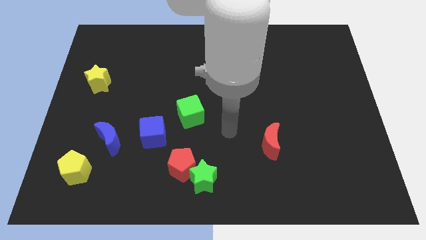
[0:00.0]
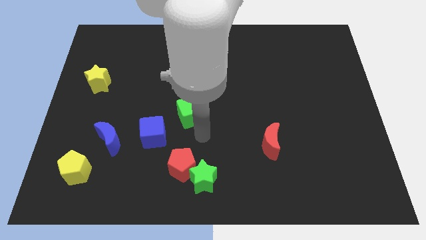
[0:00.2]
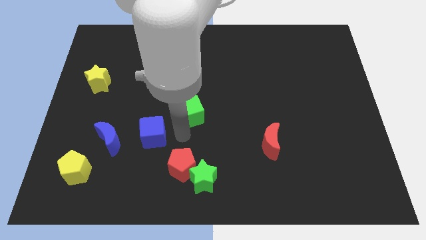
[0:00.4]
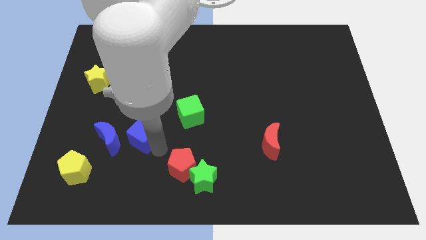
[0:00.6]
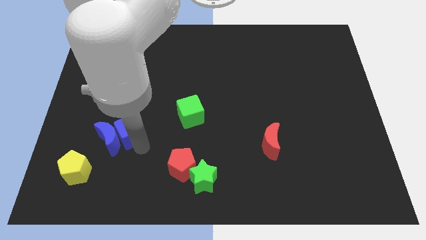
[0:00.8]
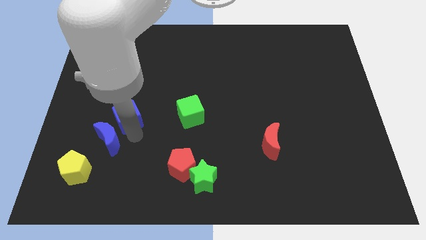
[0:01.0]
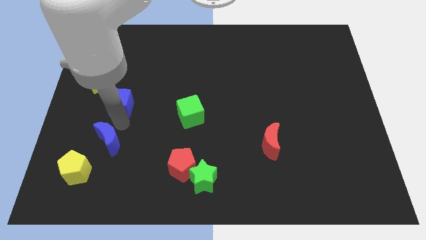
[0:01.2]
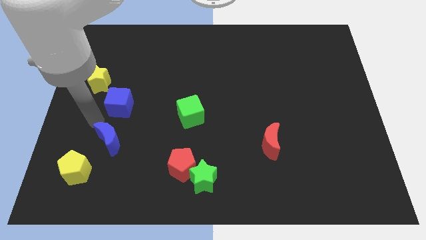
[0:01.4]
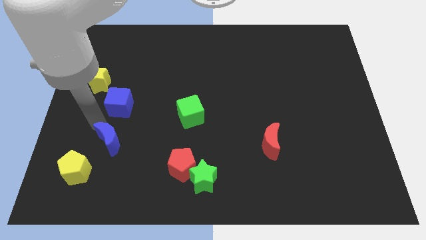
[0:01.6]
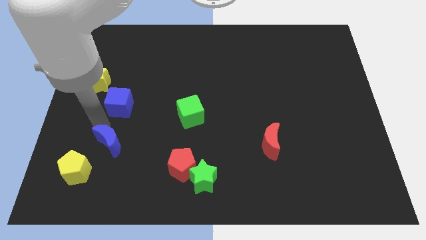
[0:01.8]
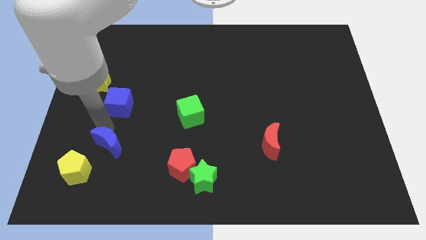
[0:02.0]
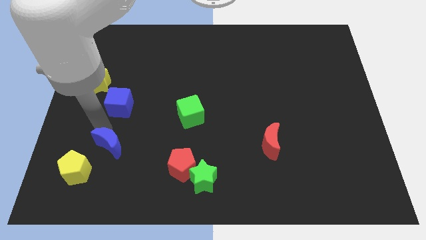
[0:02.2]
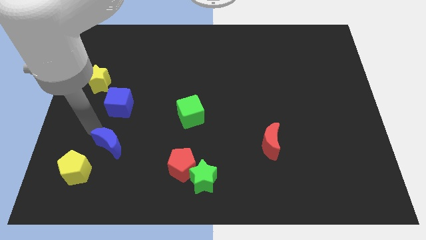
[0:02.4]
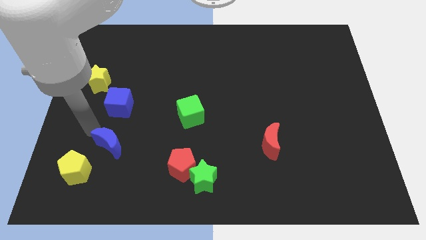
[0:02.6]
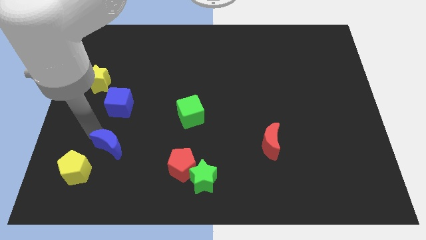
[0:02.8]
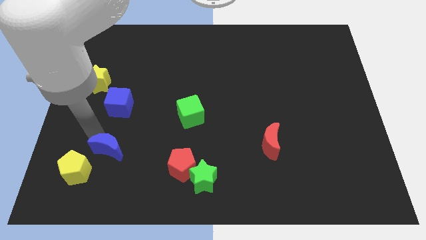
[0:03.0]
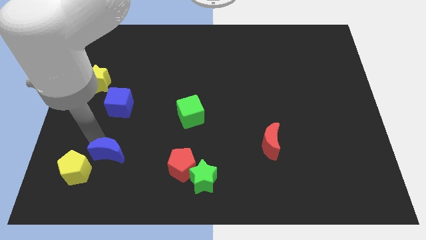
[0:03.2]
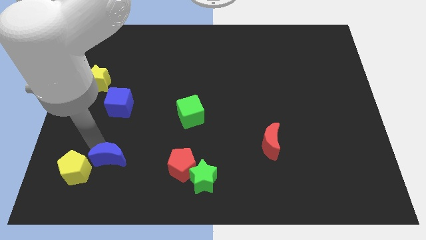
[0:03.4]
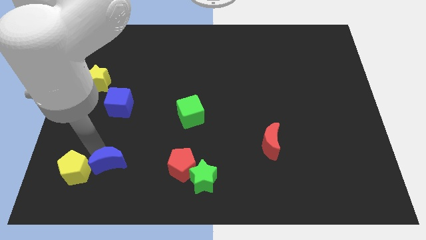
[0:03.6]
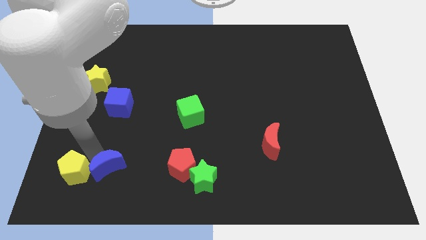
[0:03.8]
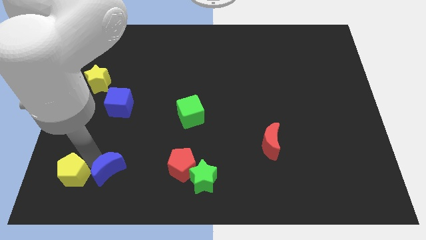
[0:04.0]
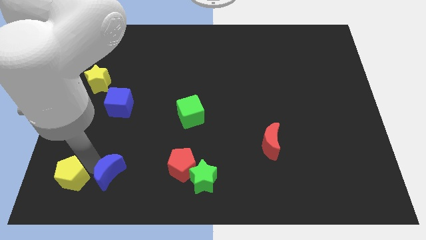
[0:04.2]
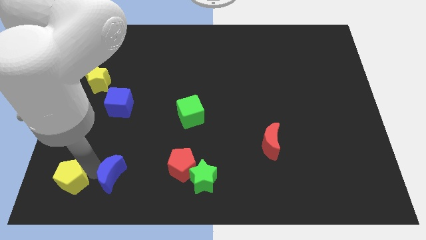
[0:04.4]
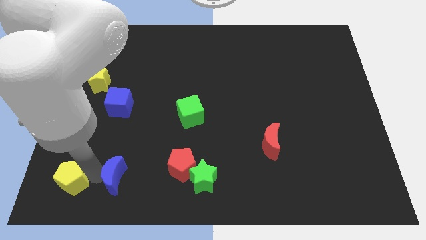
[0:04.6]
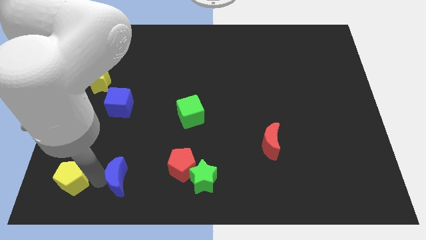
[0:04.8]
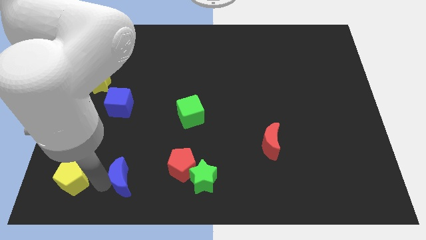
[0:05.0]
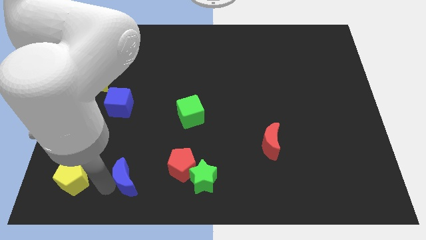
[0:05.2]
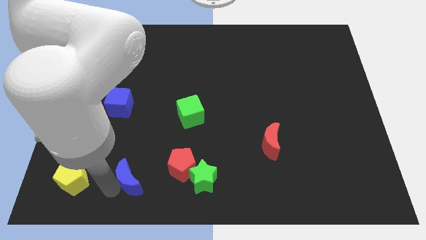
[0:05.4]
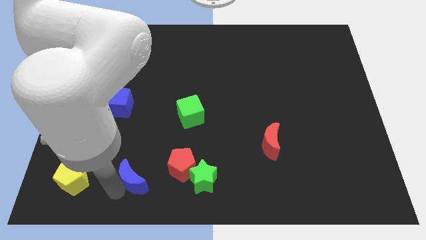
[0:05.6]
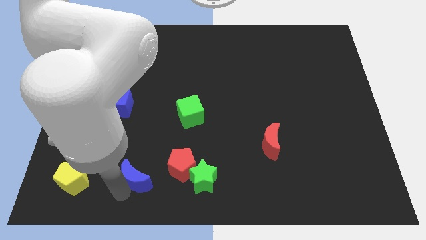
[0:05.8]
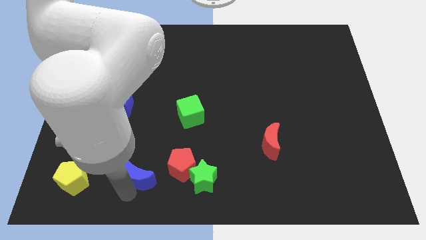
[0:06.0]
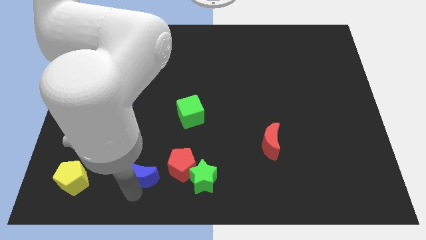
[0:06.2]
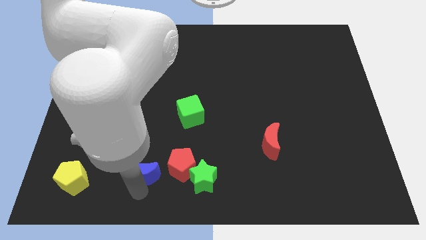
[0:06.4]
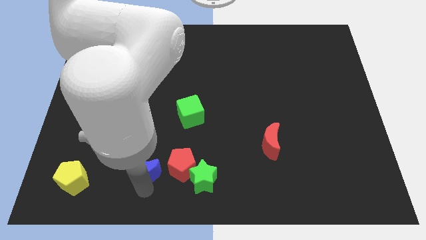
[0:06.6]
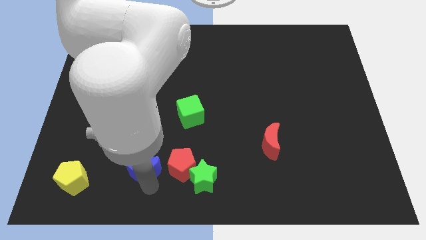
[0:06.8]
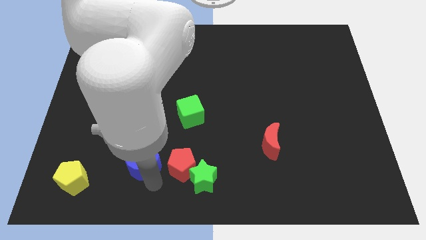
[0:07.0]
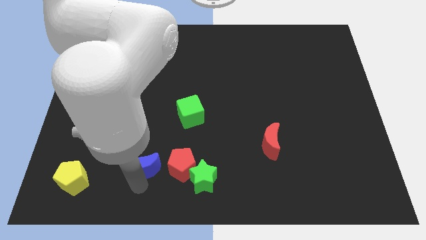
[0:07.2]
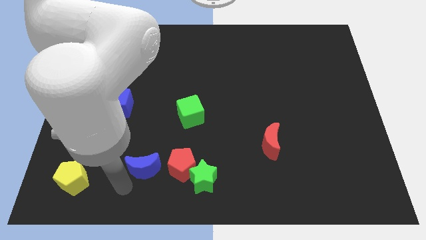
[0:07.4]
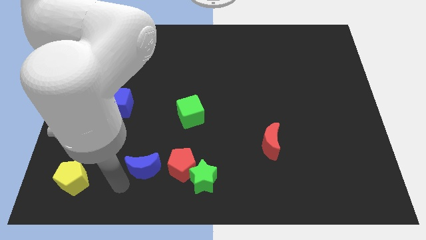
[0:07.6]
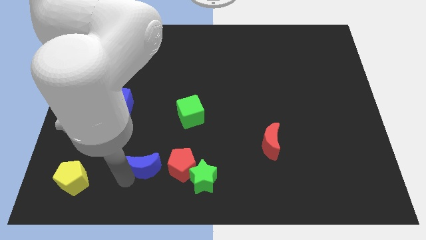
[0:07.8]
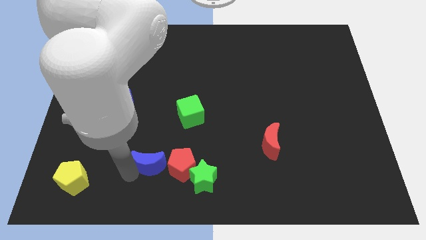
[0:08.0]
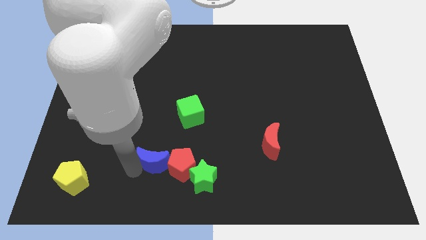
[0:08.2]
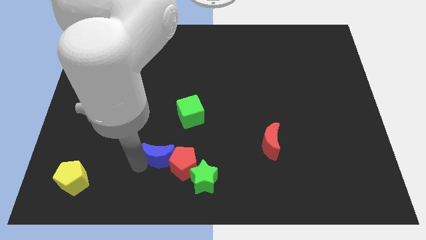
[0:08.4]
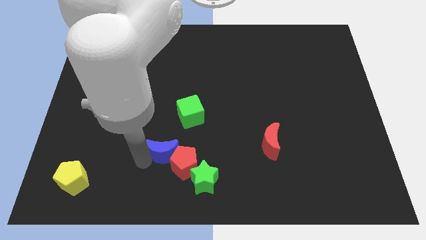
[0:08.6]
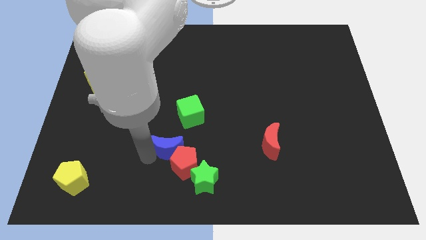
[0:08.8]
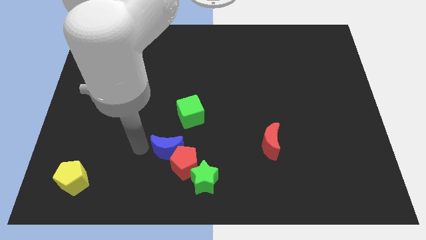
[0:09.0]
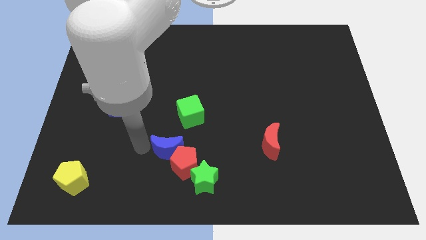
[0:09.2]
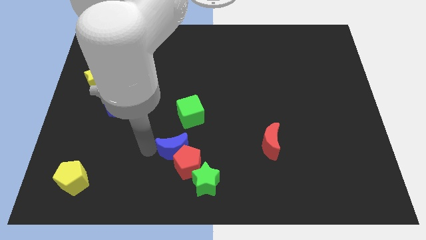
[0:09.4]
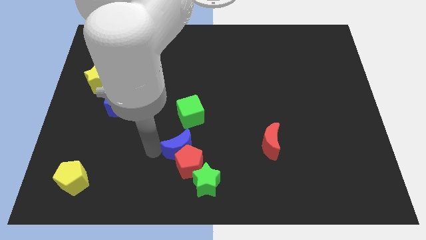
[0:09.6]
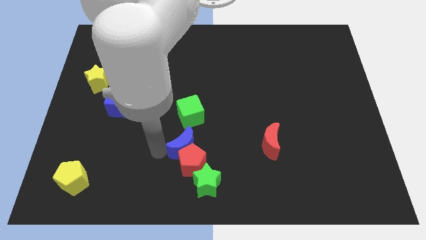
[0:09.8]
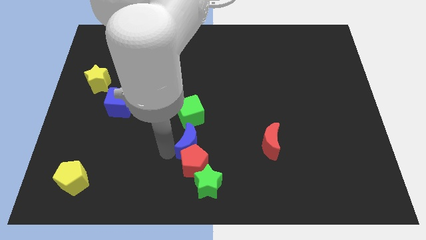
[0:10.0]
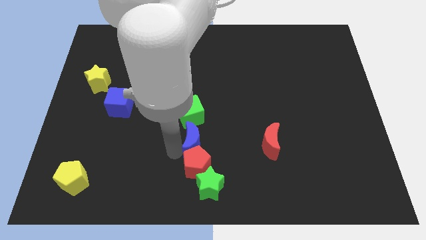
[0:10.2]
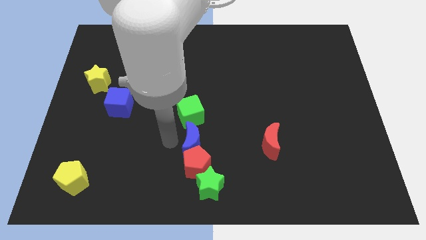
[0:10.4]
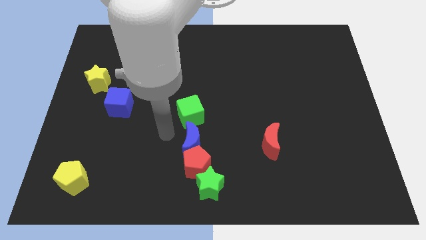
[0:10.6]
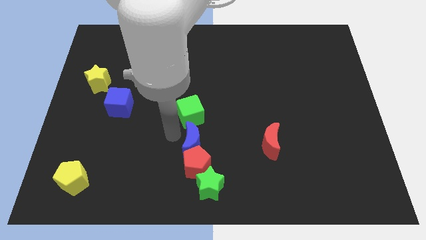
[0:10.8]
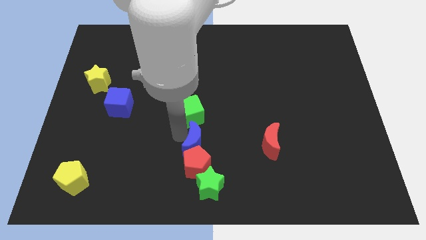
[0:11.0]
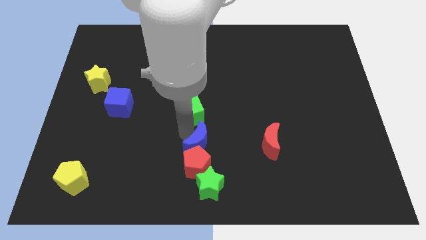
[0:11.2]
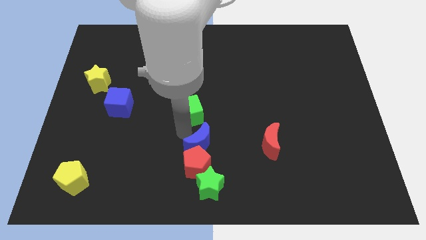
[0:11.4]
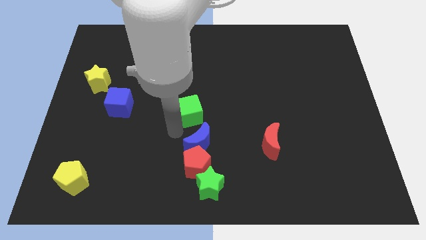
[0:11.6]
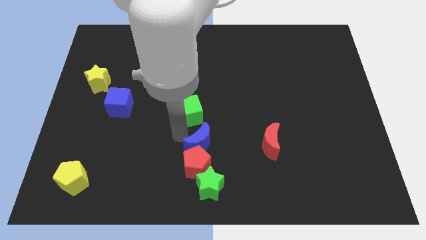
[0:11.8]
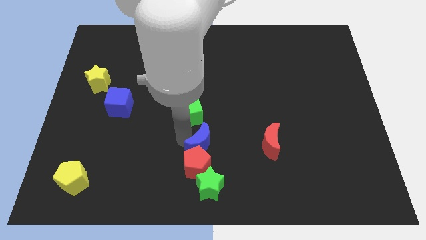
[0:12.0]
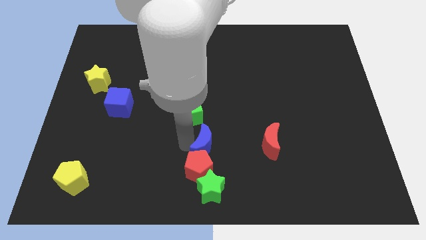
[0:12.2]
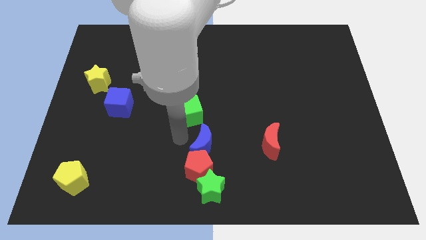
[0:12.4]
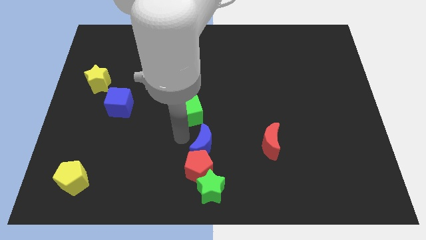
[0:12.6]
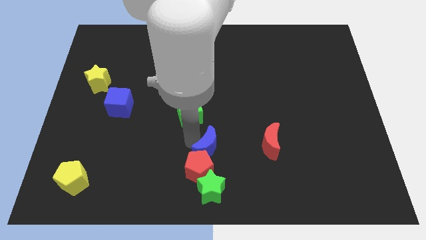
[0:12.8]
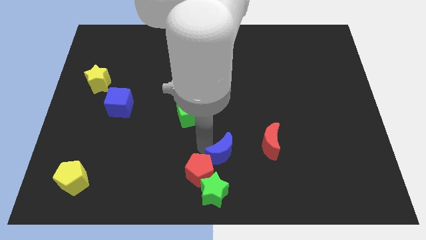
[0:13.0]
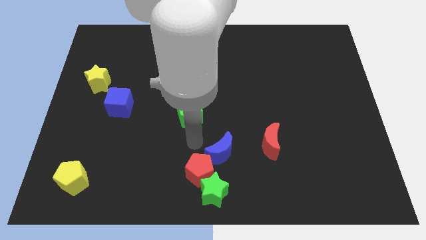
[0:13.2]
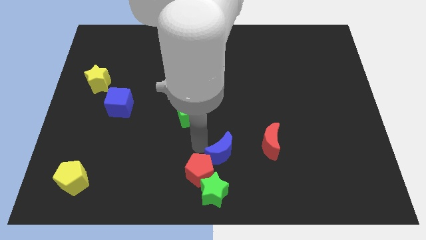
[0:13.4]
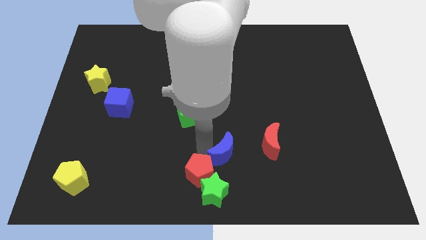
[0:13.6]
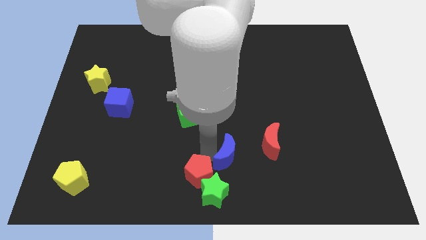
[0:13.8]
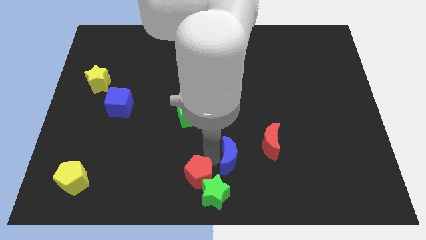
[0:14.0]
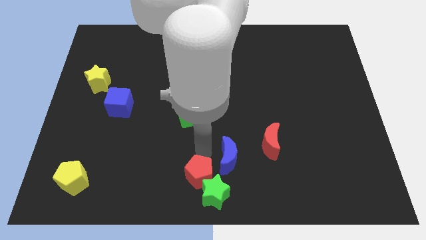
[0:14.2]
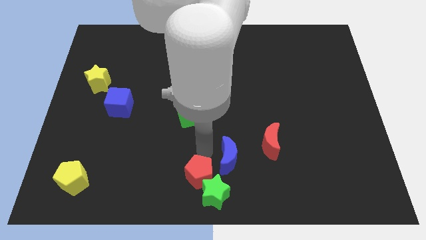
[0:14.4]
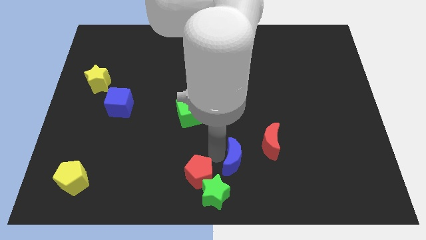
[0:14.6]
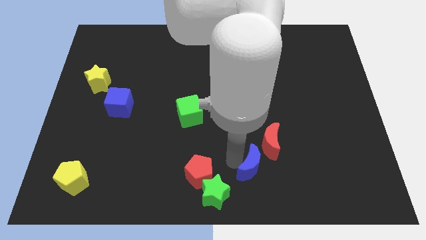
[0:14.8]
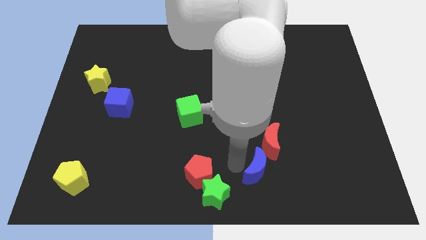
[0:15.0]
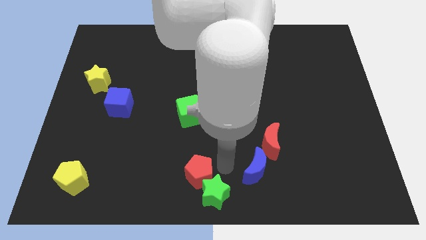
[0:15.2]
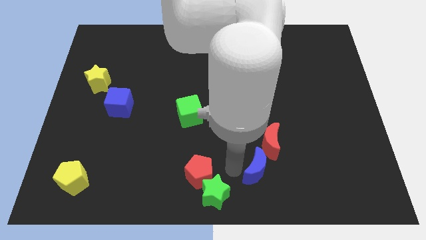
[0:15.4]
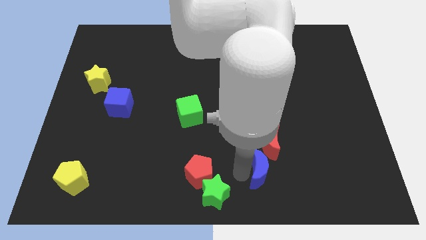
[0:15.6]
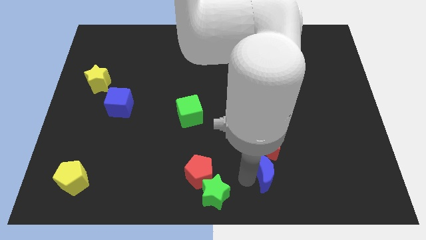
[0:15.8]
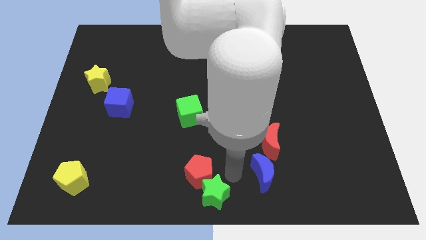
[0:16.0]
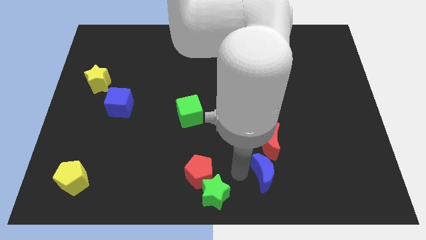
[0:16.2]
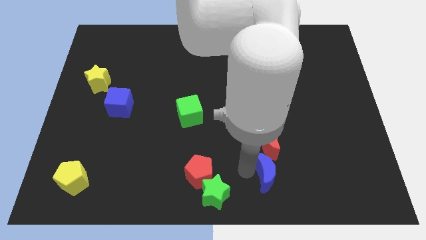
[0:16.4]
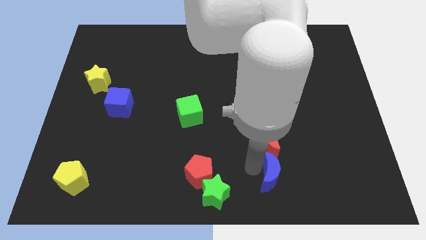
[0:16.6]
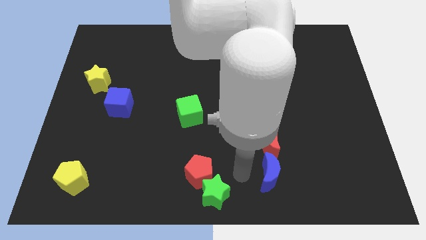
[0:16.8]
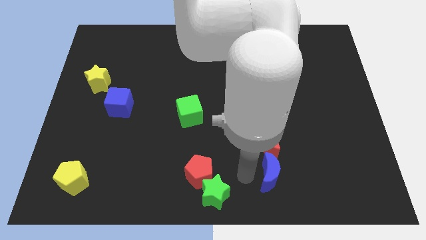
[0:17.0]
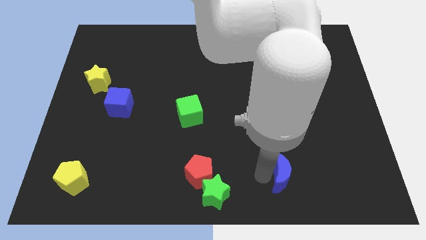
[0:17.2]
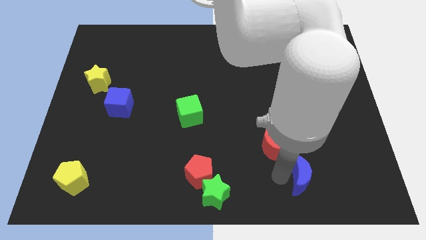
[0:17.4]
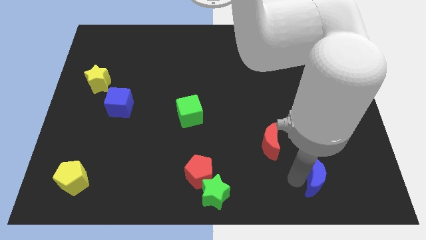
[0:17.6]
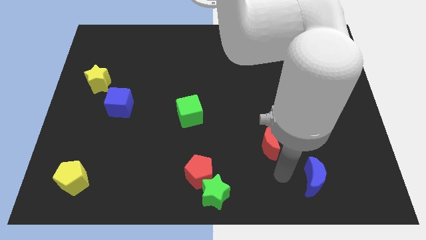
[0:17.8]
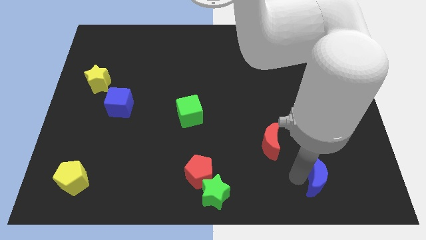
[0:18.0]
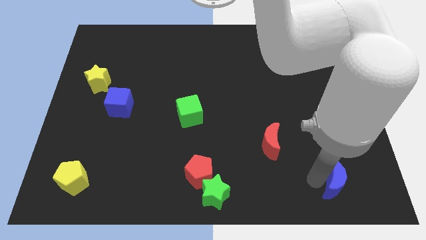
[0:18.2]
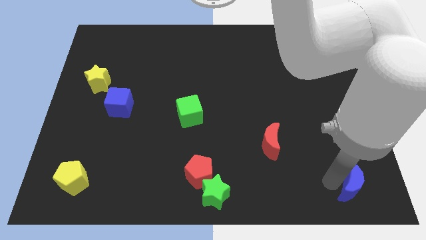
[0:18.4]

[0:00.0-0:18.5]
move the blue moon to the bottom right
